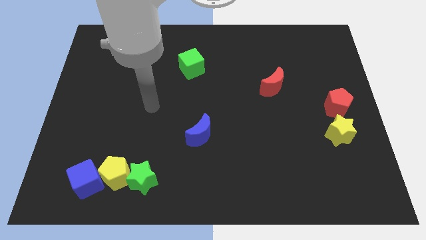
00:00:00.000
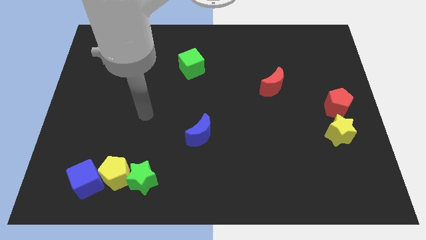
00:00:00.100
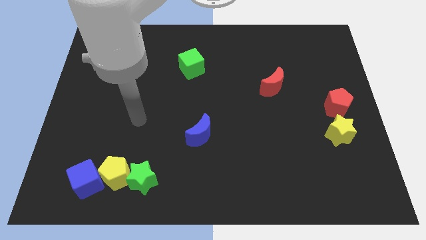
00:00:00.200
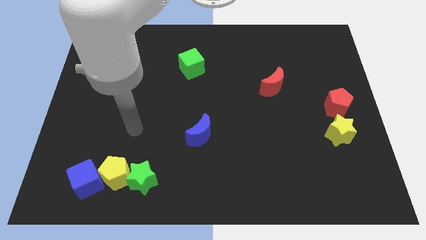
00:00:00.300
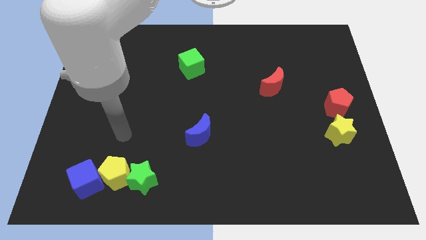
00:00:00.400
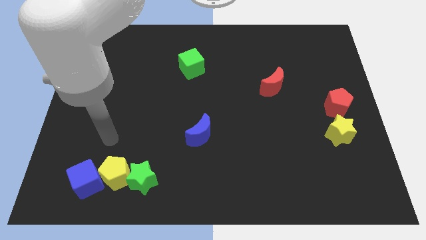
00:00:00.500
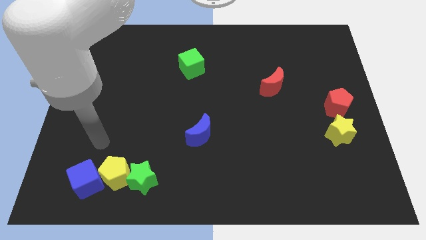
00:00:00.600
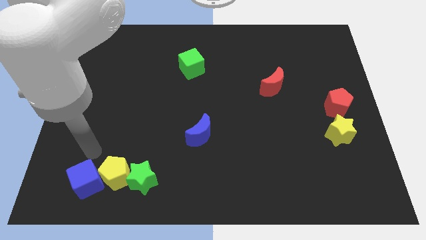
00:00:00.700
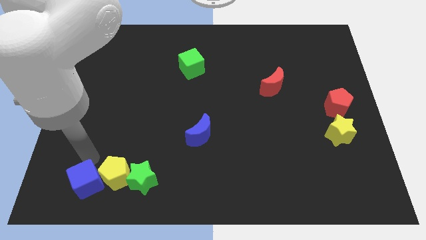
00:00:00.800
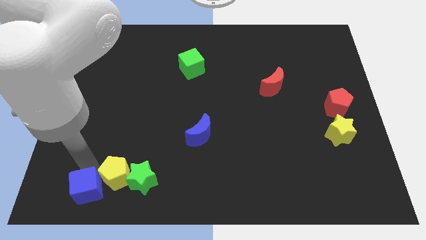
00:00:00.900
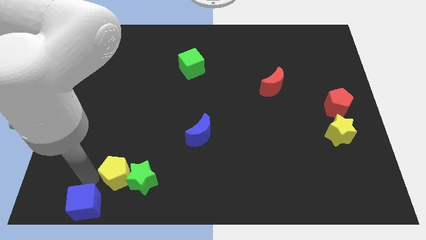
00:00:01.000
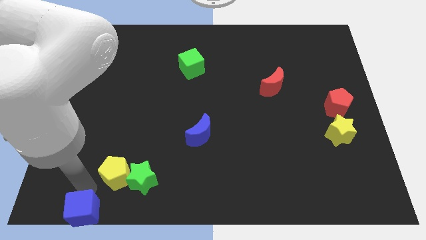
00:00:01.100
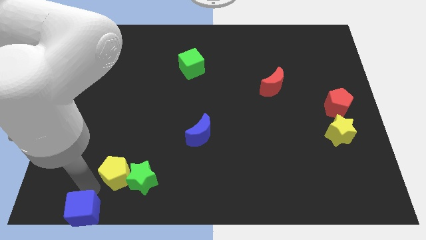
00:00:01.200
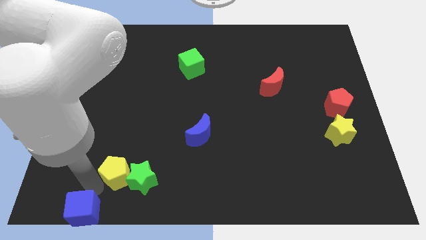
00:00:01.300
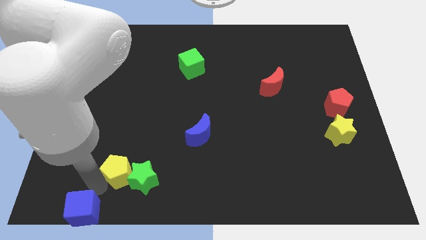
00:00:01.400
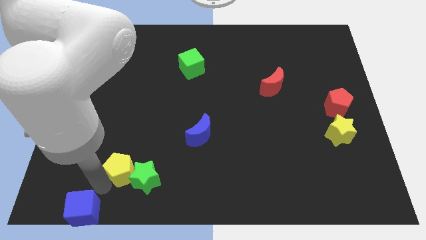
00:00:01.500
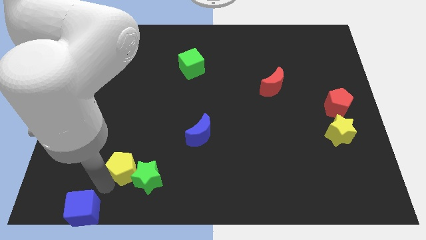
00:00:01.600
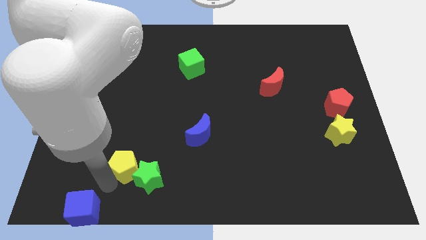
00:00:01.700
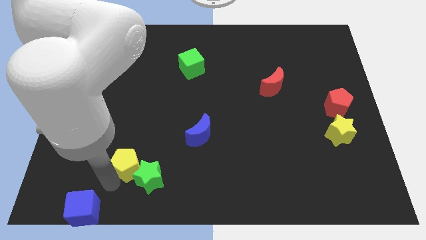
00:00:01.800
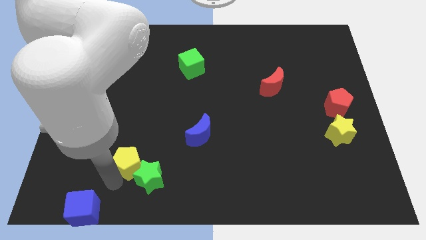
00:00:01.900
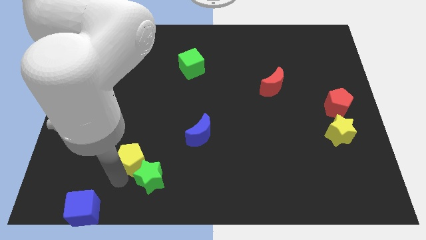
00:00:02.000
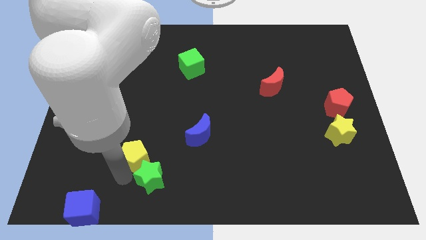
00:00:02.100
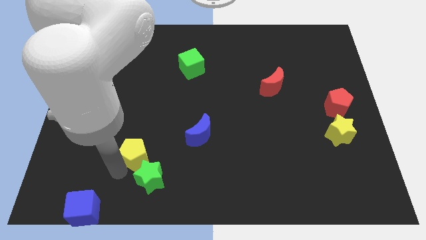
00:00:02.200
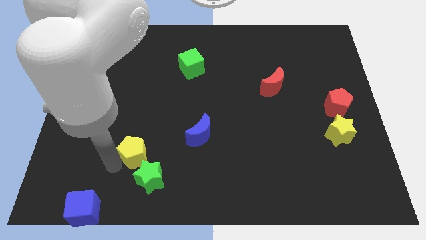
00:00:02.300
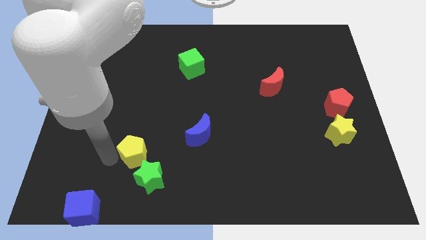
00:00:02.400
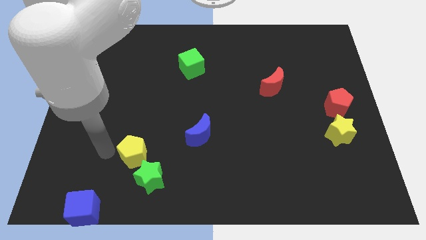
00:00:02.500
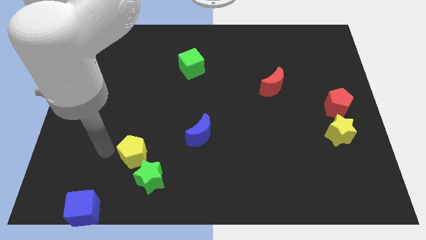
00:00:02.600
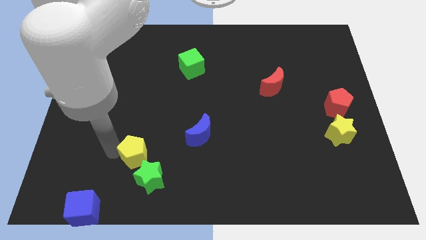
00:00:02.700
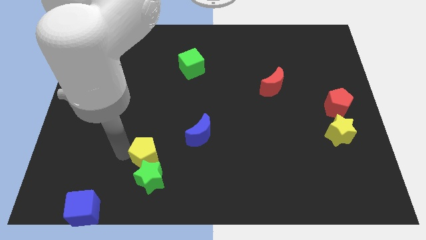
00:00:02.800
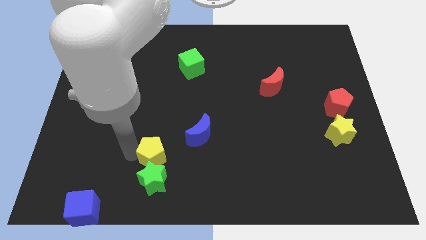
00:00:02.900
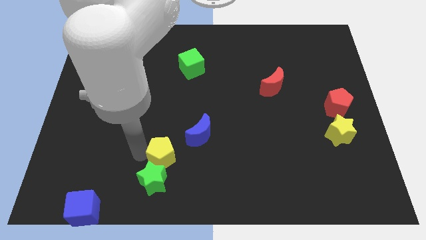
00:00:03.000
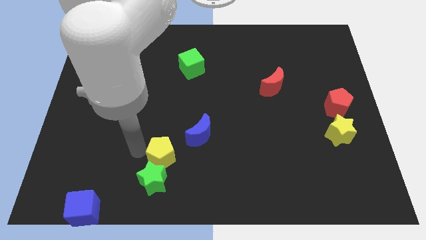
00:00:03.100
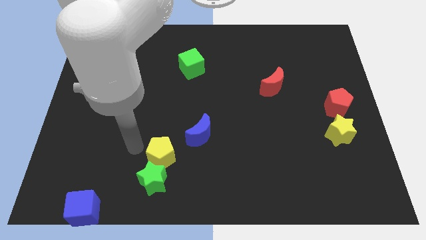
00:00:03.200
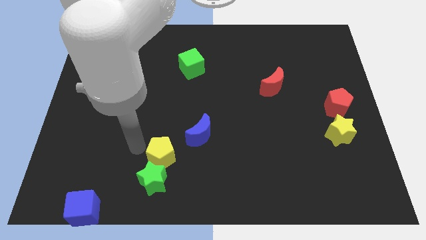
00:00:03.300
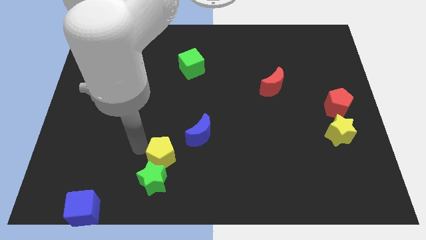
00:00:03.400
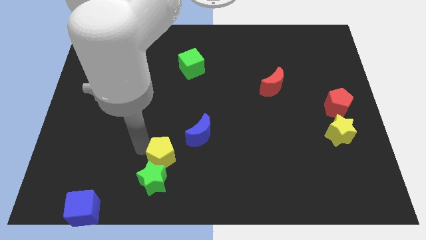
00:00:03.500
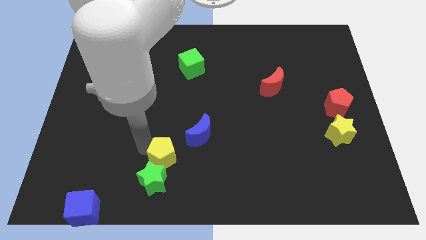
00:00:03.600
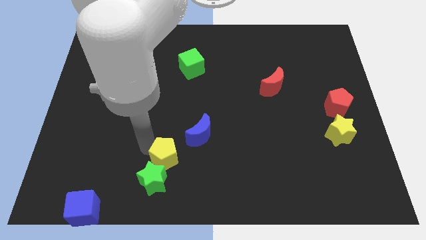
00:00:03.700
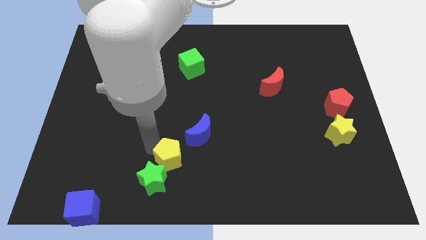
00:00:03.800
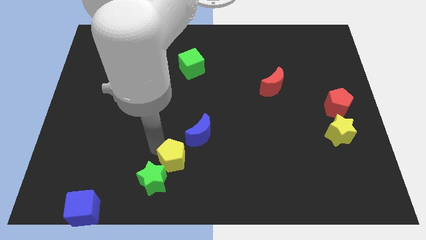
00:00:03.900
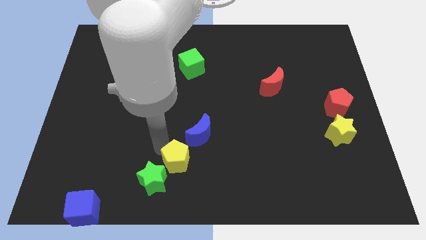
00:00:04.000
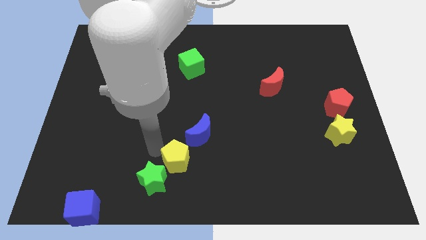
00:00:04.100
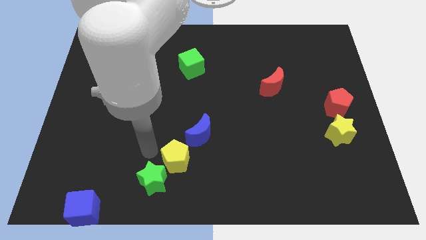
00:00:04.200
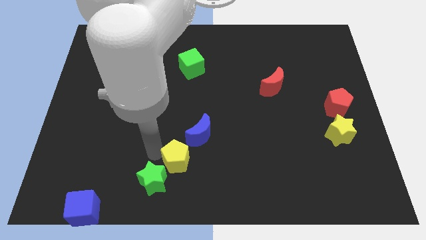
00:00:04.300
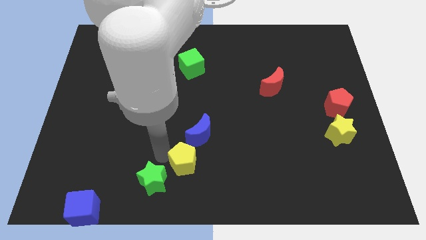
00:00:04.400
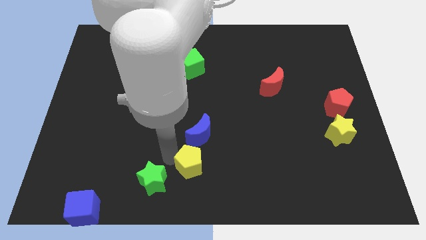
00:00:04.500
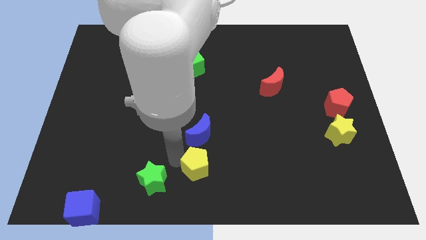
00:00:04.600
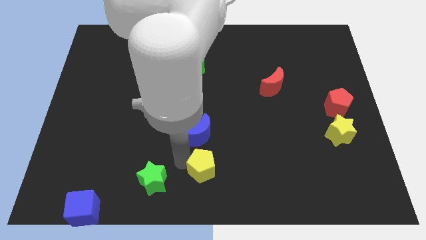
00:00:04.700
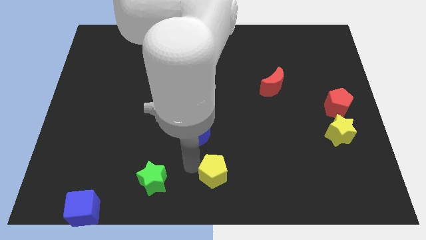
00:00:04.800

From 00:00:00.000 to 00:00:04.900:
slide the yellow pentagon right

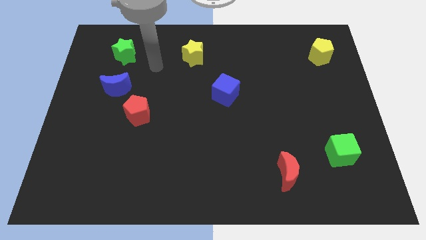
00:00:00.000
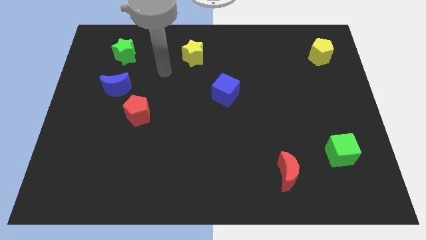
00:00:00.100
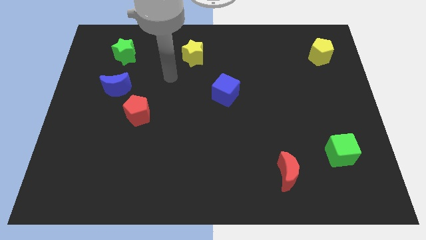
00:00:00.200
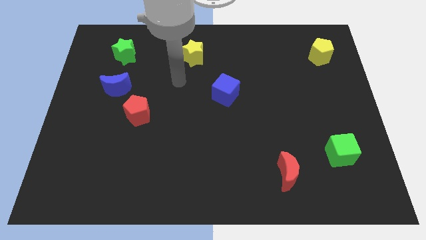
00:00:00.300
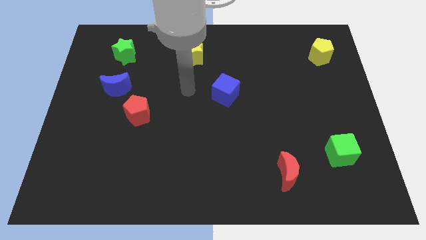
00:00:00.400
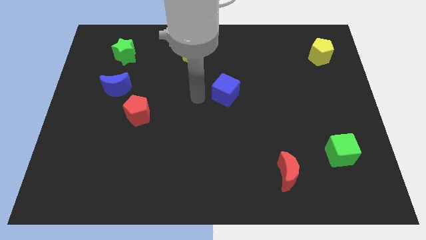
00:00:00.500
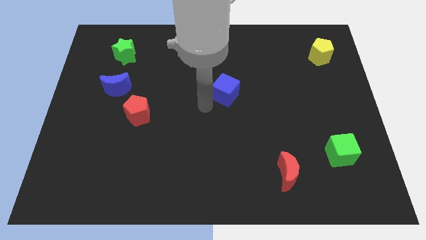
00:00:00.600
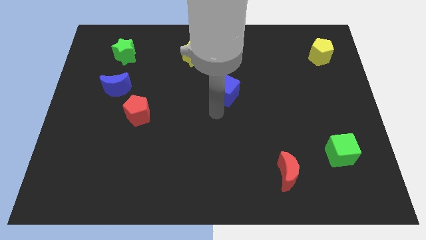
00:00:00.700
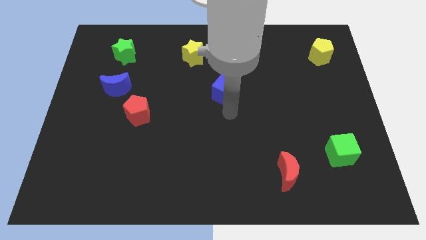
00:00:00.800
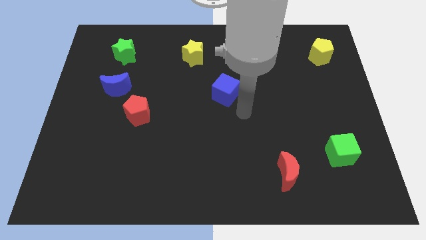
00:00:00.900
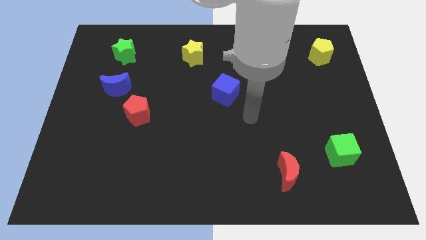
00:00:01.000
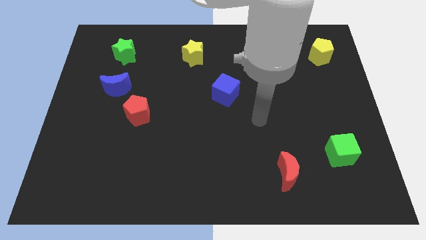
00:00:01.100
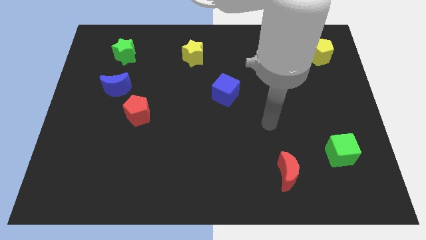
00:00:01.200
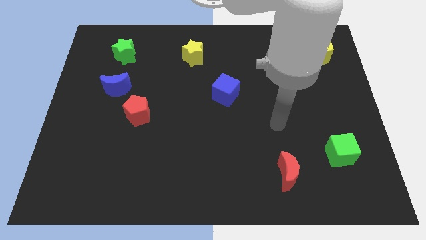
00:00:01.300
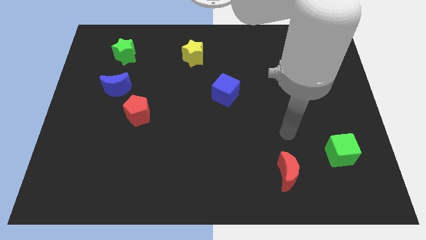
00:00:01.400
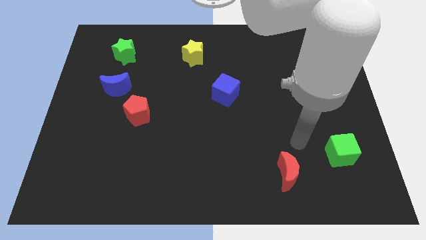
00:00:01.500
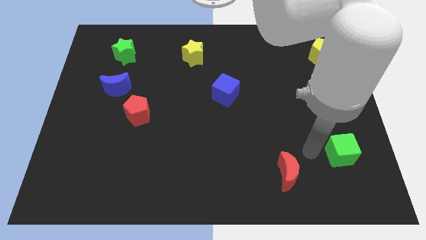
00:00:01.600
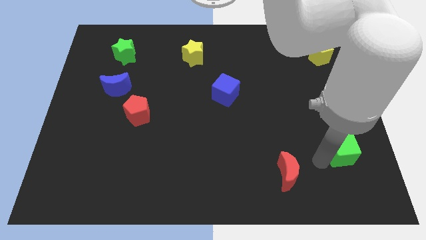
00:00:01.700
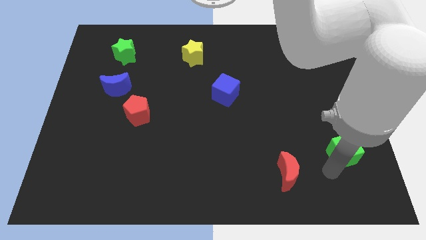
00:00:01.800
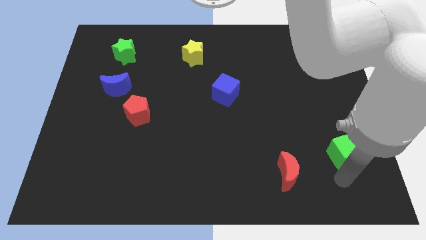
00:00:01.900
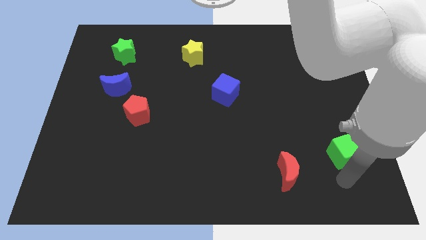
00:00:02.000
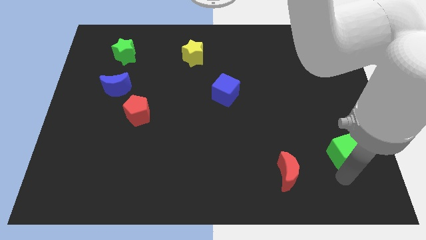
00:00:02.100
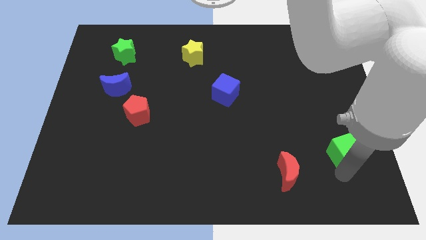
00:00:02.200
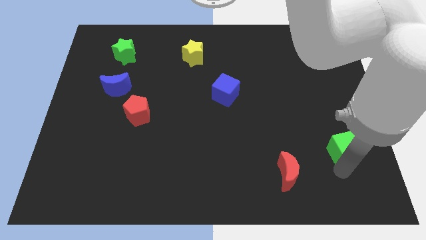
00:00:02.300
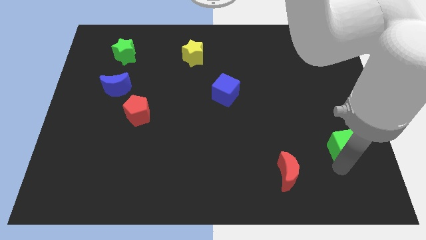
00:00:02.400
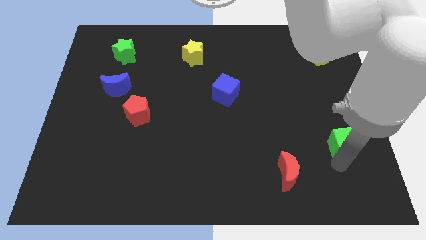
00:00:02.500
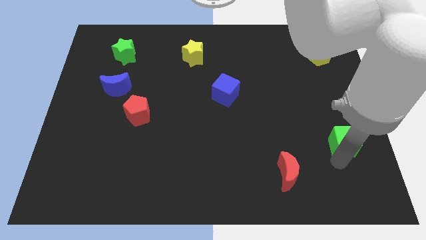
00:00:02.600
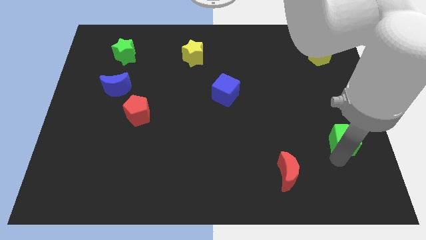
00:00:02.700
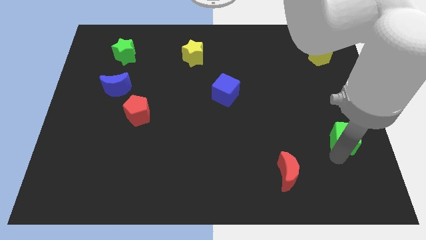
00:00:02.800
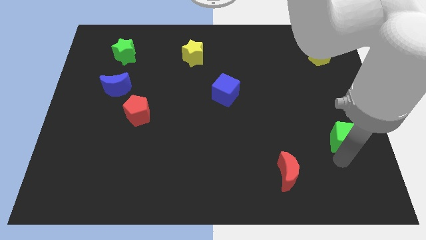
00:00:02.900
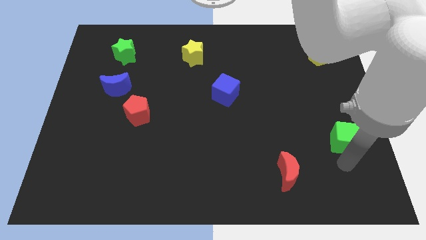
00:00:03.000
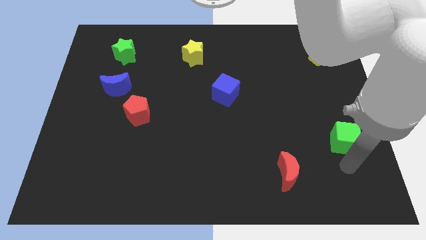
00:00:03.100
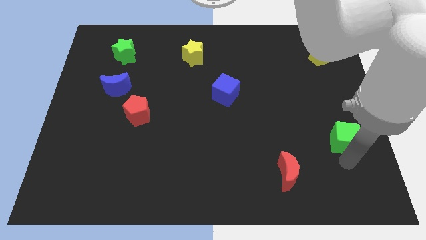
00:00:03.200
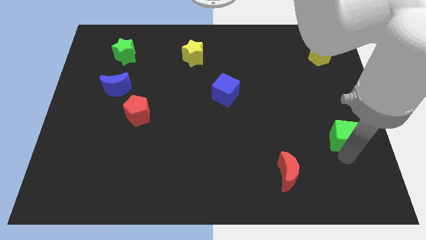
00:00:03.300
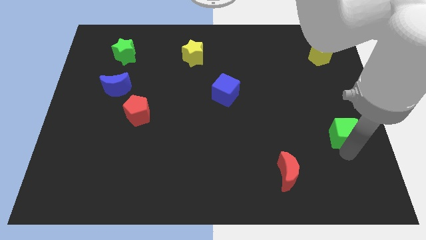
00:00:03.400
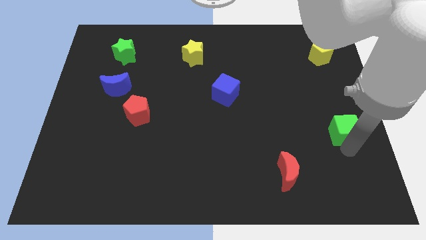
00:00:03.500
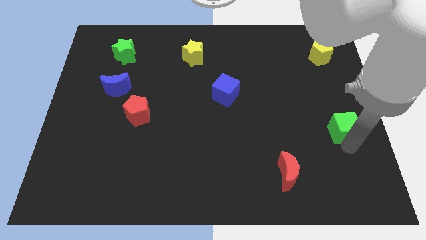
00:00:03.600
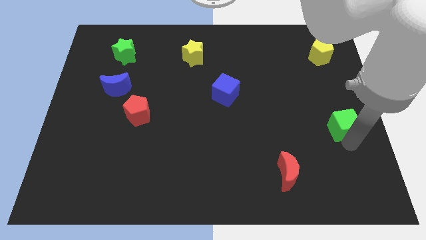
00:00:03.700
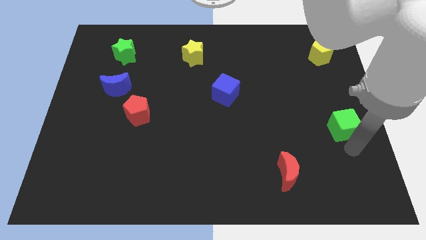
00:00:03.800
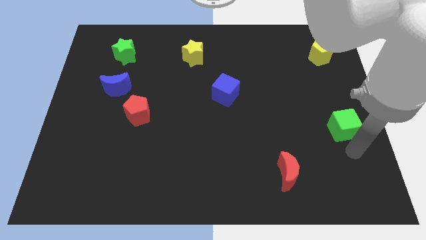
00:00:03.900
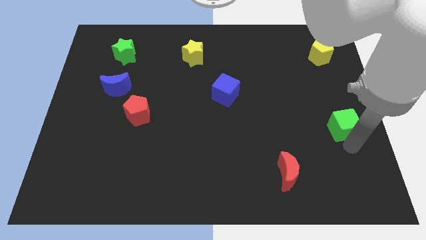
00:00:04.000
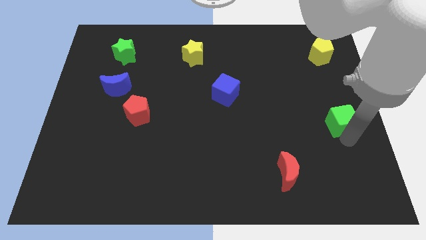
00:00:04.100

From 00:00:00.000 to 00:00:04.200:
slightly push the green cube up
